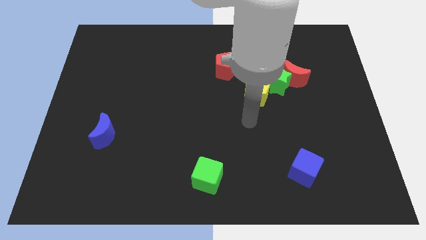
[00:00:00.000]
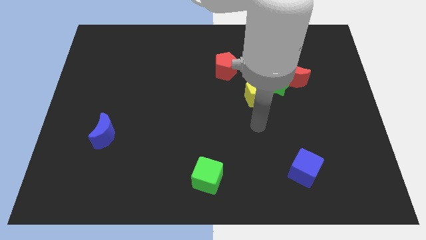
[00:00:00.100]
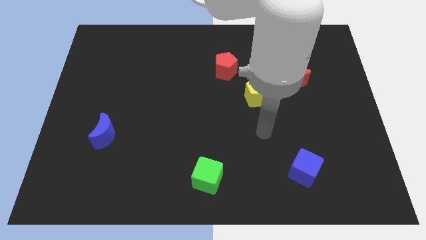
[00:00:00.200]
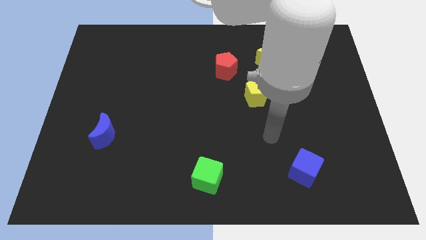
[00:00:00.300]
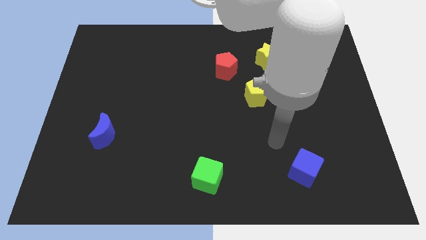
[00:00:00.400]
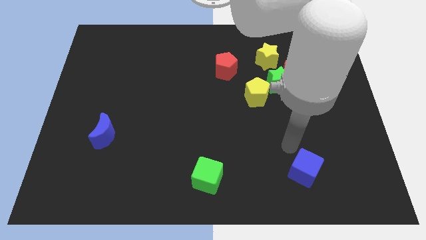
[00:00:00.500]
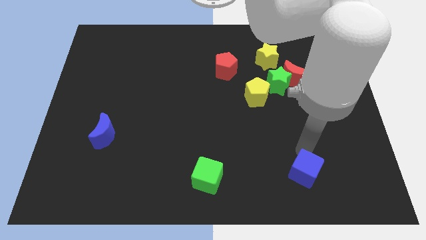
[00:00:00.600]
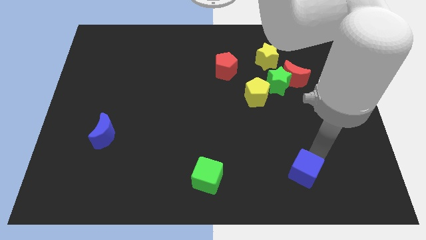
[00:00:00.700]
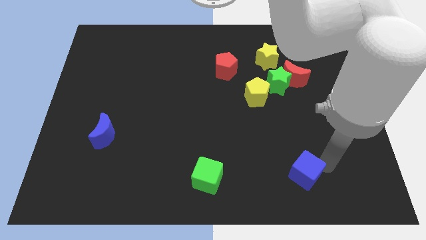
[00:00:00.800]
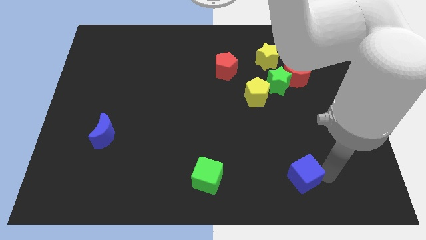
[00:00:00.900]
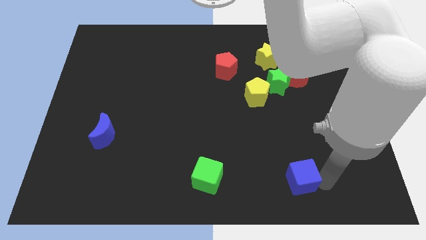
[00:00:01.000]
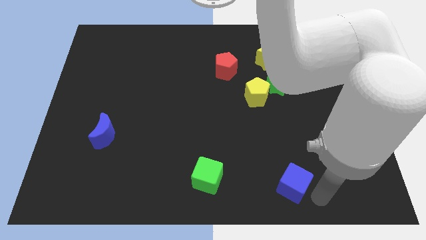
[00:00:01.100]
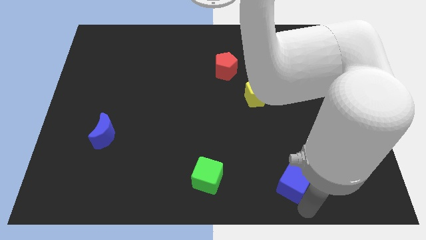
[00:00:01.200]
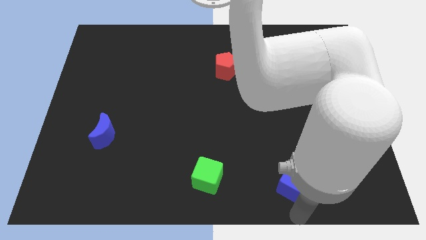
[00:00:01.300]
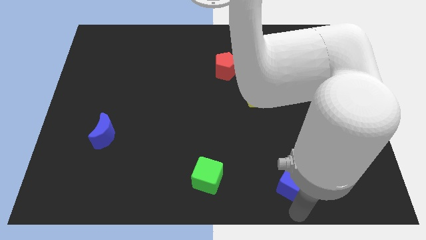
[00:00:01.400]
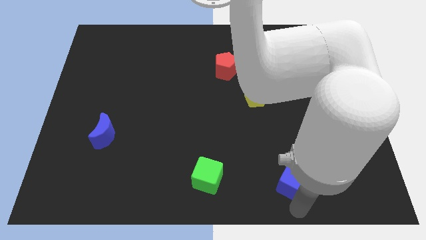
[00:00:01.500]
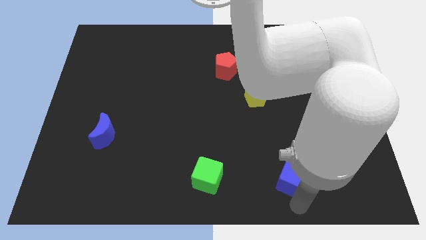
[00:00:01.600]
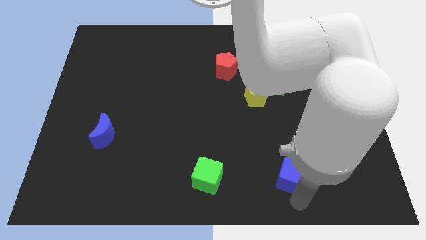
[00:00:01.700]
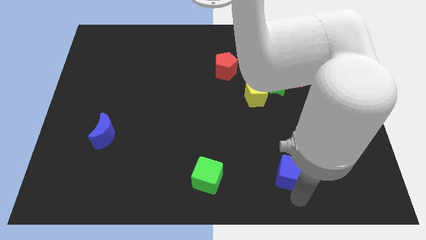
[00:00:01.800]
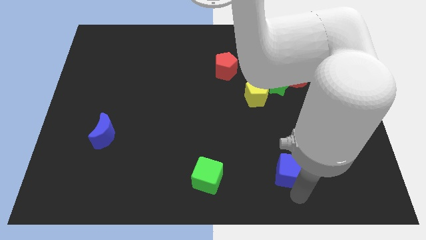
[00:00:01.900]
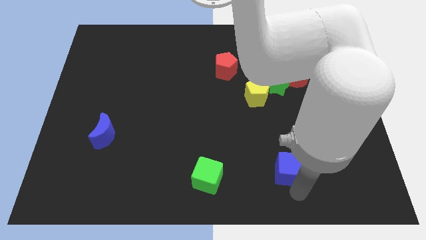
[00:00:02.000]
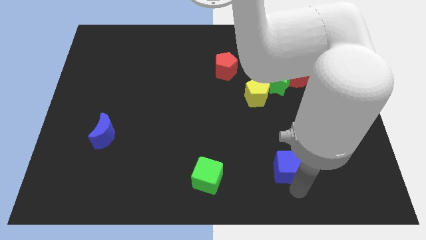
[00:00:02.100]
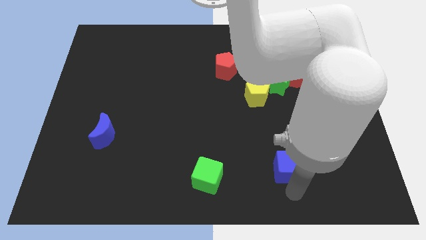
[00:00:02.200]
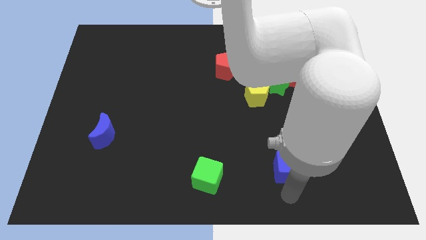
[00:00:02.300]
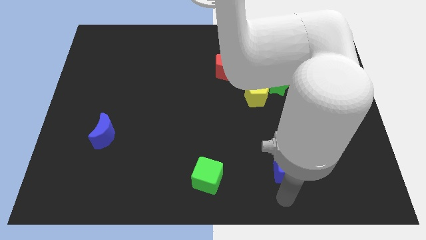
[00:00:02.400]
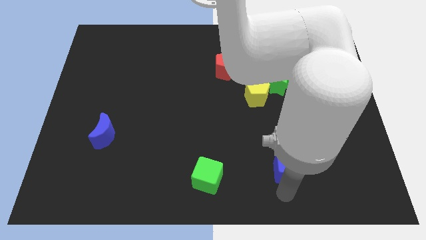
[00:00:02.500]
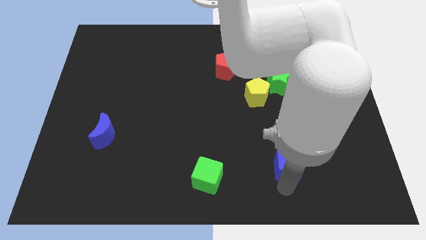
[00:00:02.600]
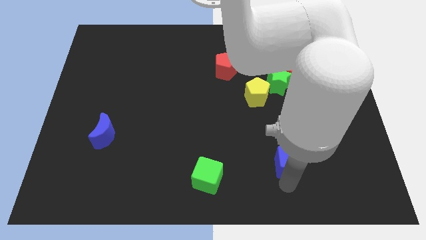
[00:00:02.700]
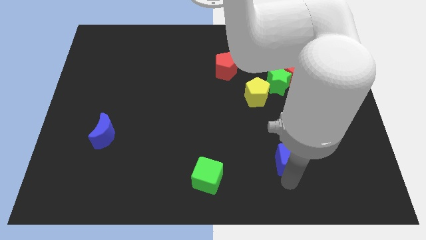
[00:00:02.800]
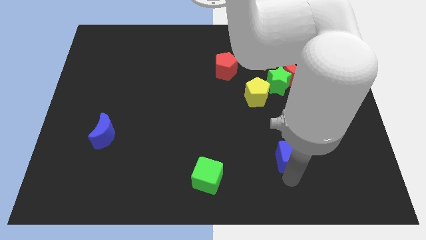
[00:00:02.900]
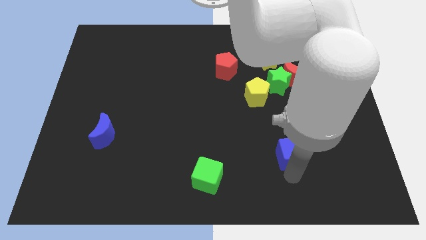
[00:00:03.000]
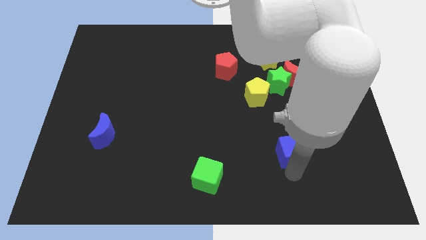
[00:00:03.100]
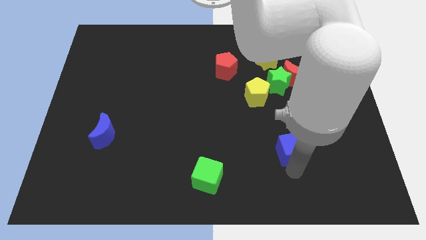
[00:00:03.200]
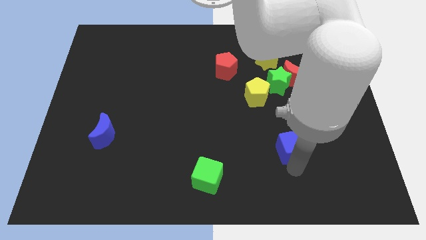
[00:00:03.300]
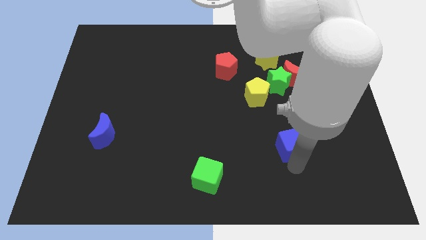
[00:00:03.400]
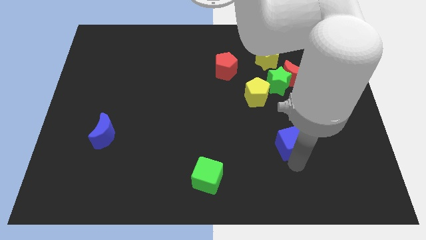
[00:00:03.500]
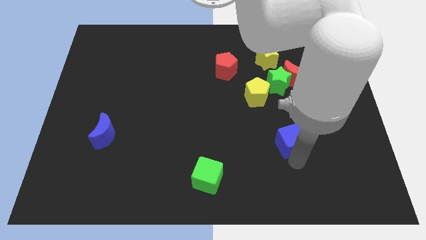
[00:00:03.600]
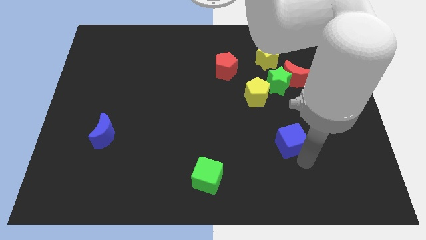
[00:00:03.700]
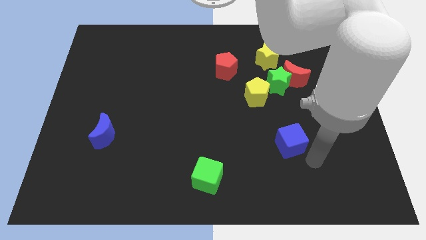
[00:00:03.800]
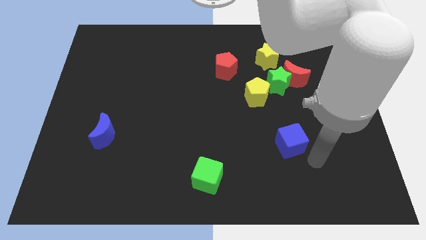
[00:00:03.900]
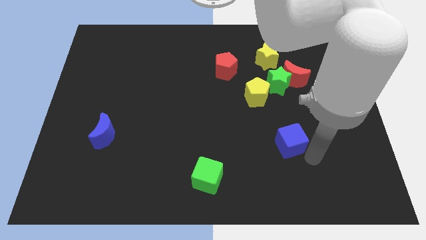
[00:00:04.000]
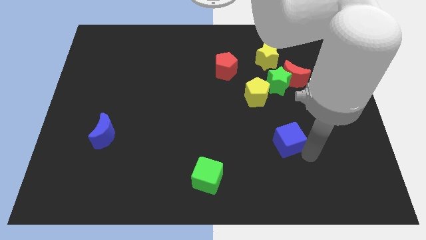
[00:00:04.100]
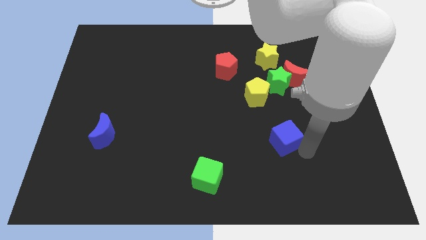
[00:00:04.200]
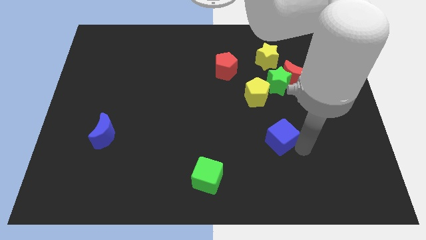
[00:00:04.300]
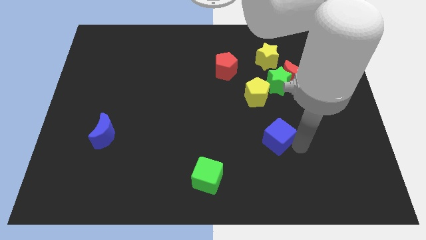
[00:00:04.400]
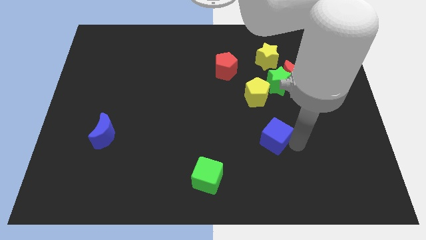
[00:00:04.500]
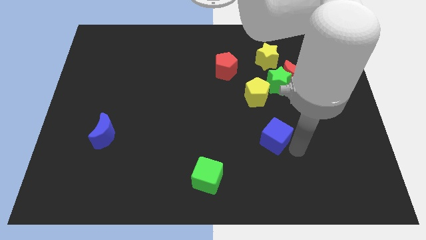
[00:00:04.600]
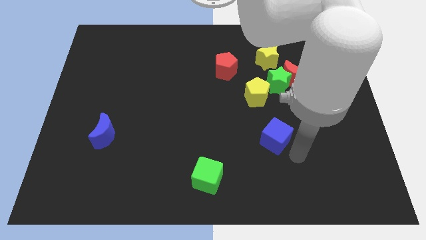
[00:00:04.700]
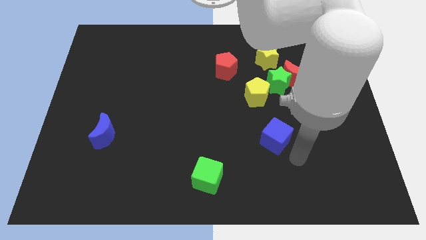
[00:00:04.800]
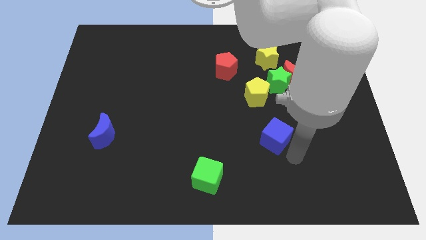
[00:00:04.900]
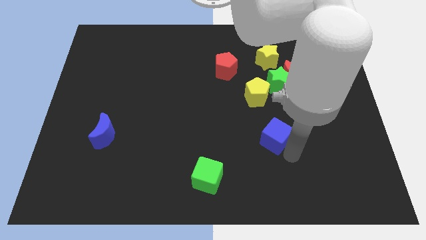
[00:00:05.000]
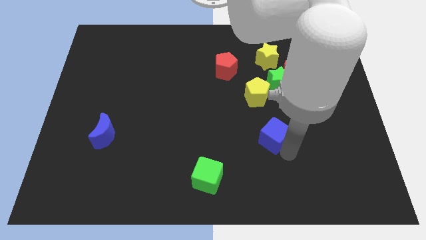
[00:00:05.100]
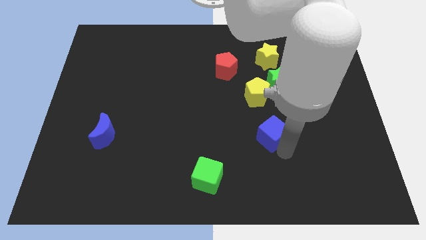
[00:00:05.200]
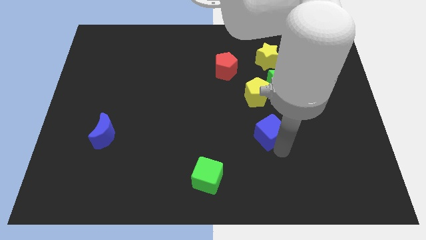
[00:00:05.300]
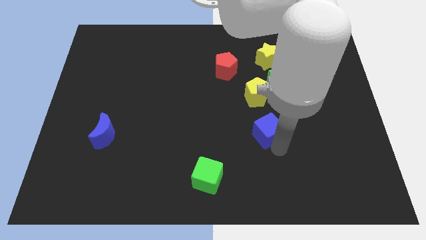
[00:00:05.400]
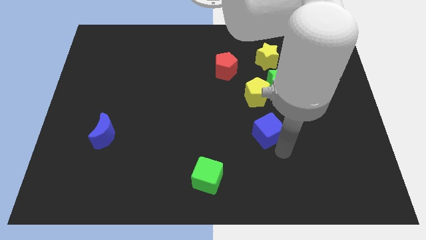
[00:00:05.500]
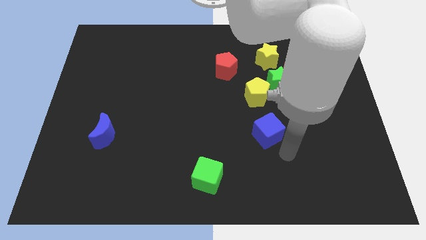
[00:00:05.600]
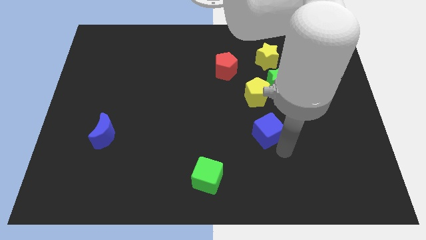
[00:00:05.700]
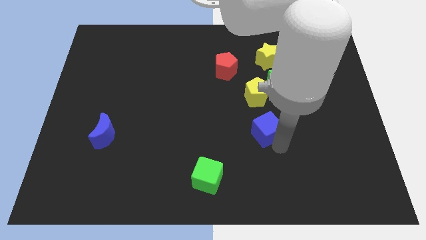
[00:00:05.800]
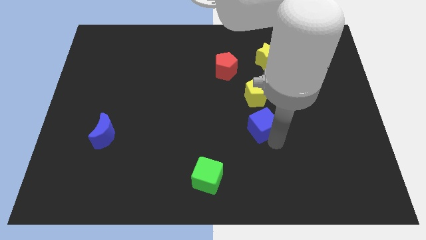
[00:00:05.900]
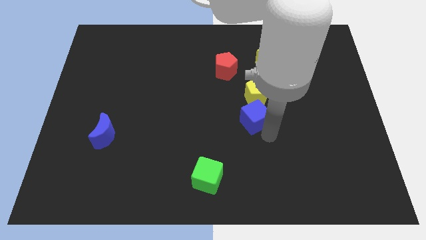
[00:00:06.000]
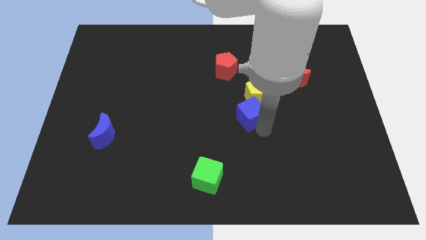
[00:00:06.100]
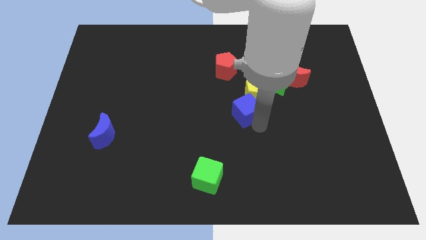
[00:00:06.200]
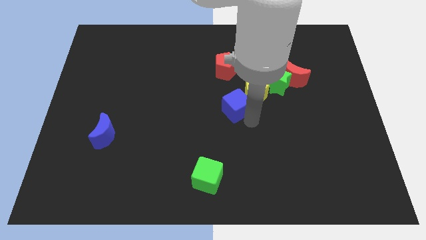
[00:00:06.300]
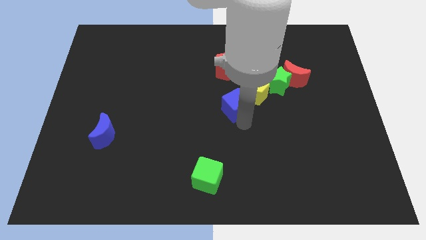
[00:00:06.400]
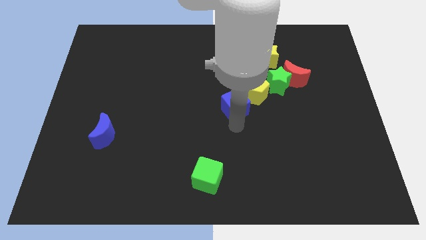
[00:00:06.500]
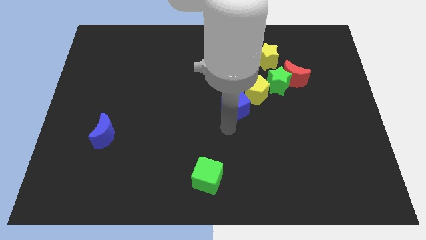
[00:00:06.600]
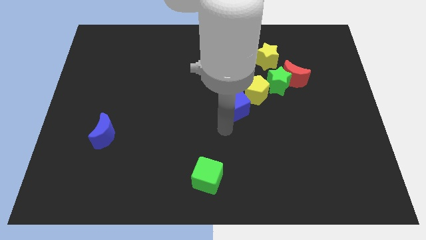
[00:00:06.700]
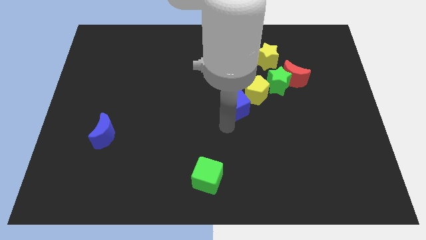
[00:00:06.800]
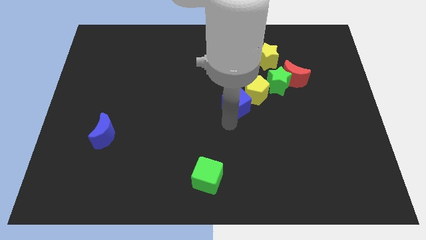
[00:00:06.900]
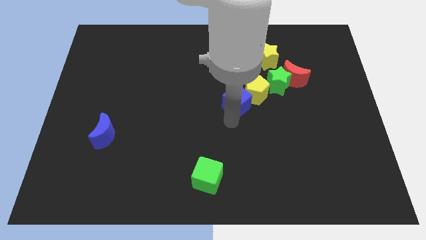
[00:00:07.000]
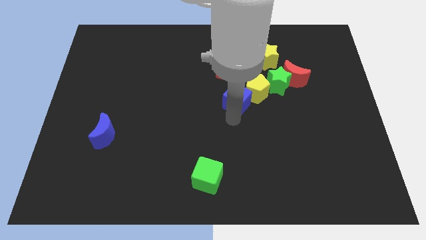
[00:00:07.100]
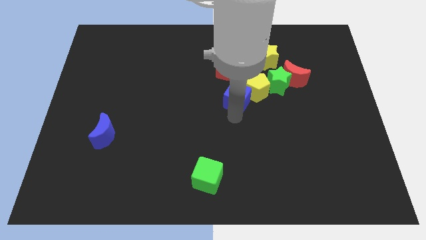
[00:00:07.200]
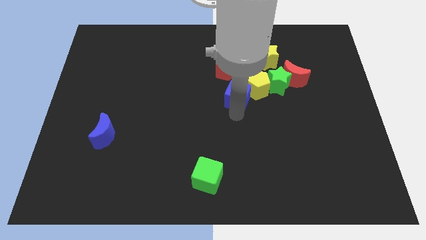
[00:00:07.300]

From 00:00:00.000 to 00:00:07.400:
move the blue cube diagonally down and to the right of the red pentagon
